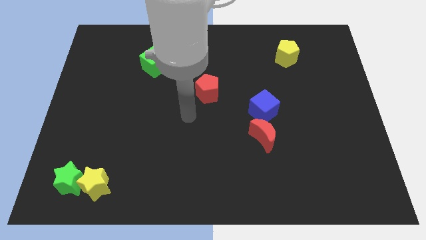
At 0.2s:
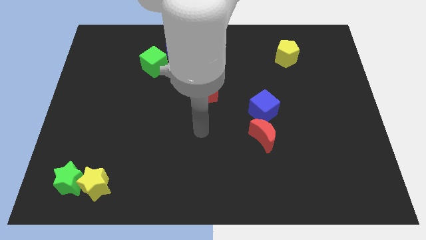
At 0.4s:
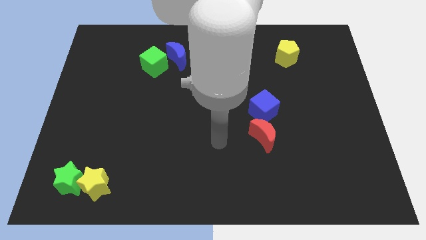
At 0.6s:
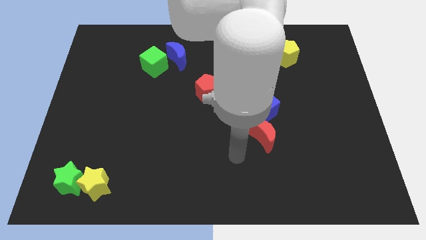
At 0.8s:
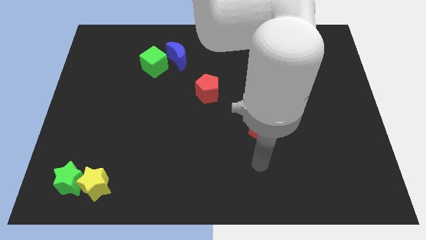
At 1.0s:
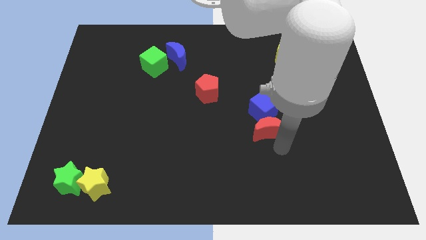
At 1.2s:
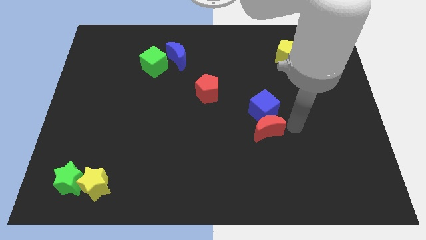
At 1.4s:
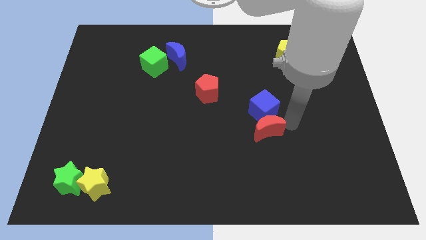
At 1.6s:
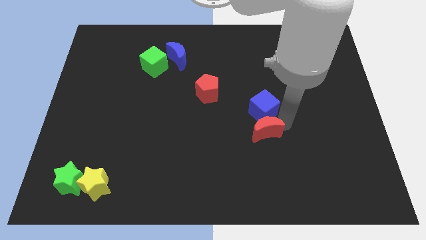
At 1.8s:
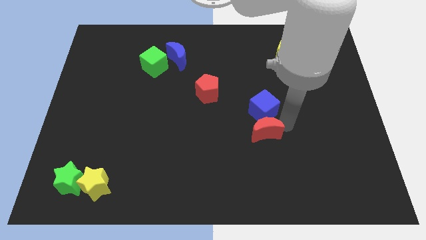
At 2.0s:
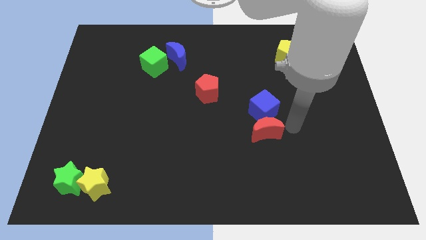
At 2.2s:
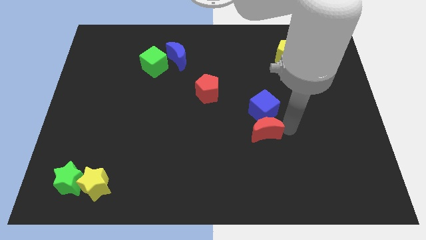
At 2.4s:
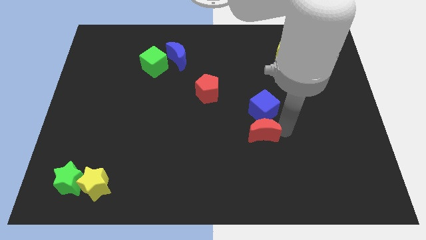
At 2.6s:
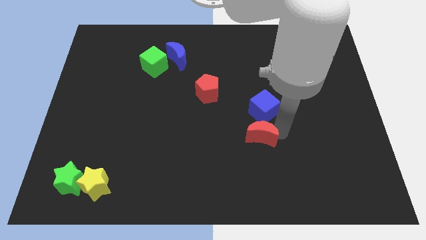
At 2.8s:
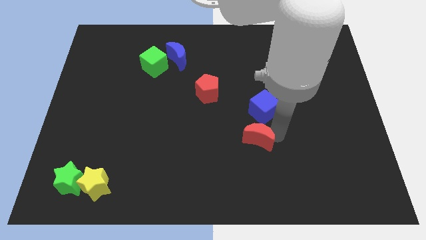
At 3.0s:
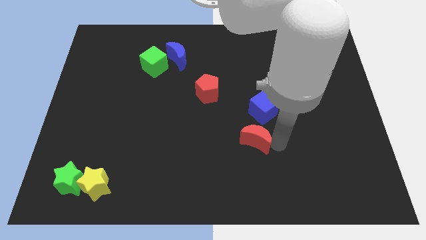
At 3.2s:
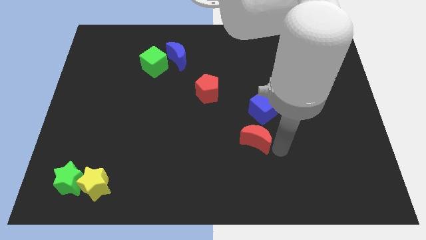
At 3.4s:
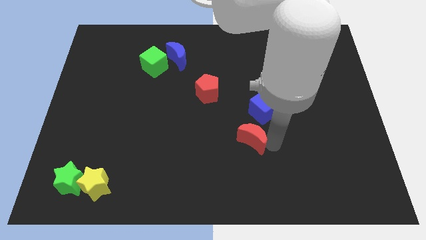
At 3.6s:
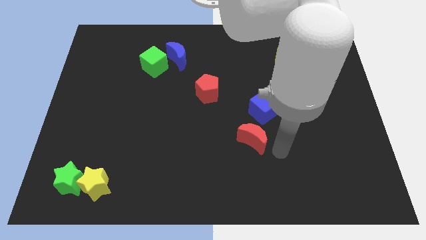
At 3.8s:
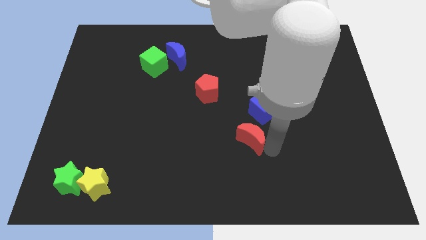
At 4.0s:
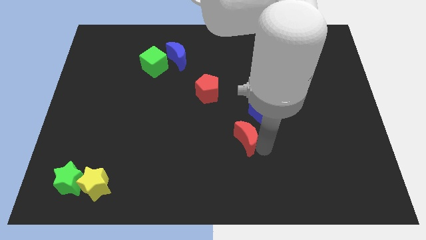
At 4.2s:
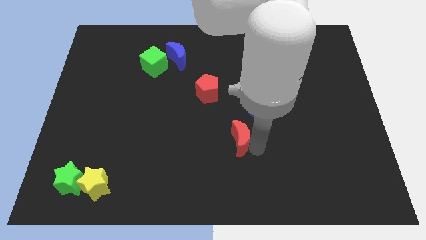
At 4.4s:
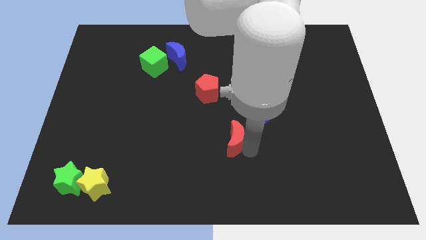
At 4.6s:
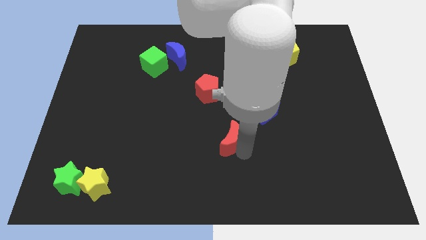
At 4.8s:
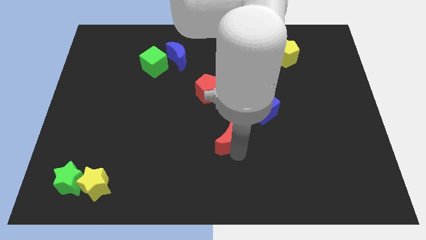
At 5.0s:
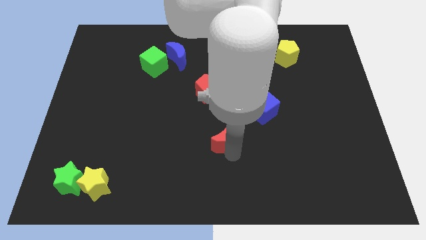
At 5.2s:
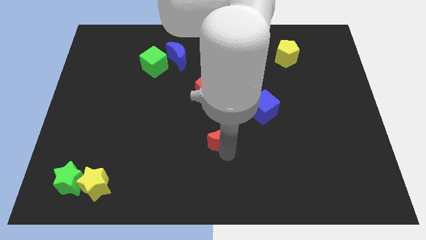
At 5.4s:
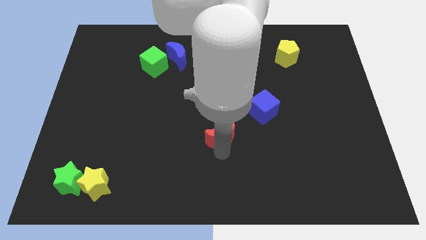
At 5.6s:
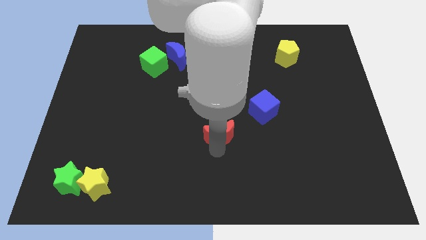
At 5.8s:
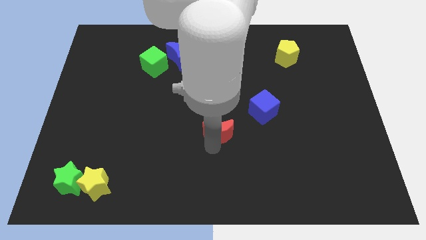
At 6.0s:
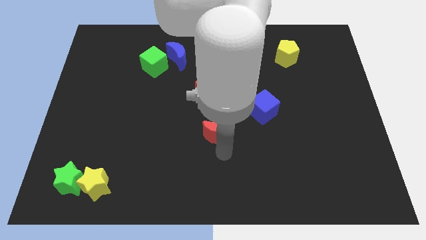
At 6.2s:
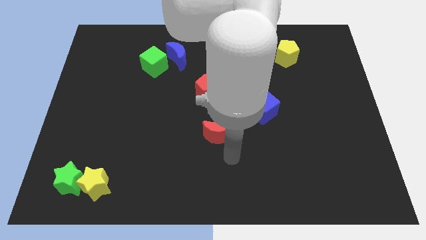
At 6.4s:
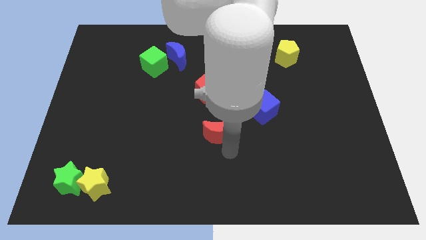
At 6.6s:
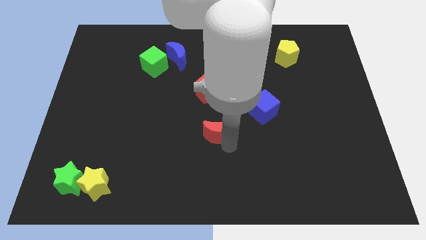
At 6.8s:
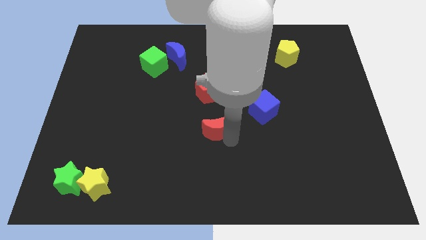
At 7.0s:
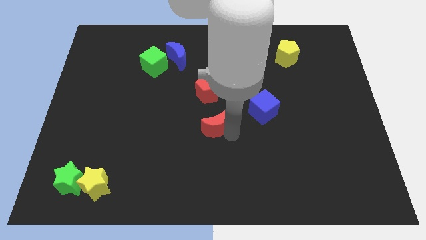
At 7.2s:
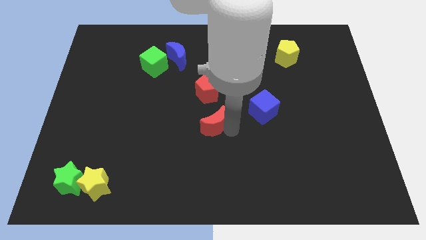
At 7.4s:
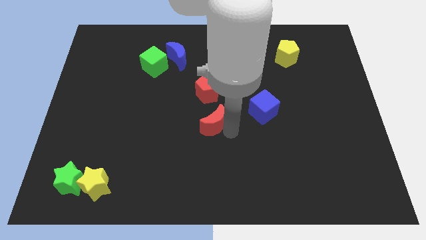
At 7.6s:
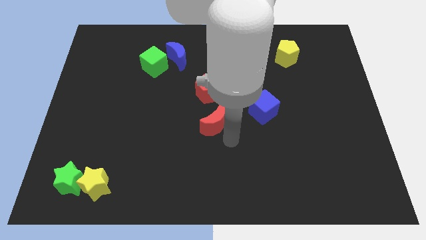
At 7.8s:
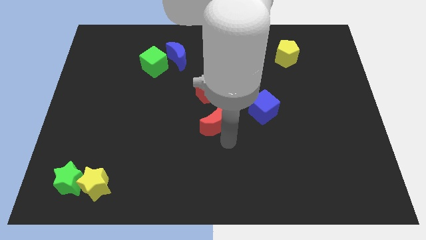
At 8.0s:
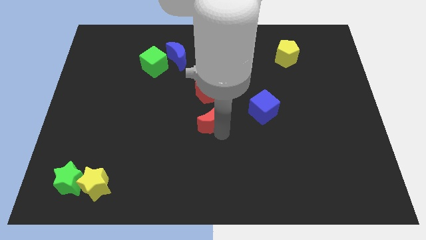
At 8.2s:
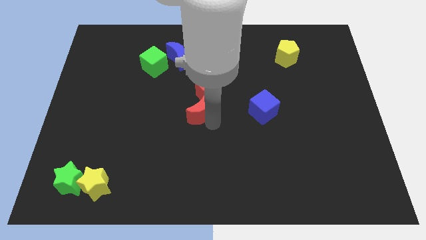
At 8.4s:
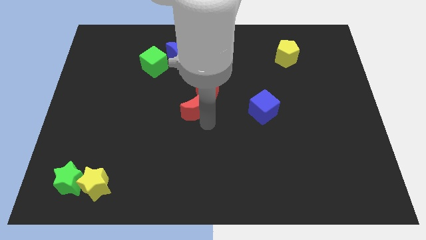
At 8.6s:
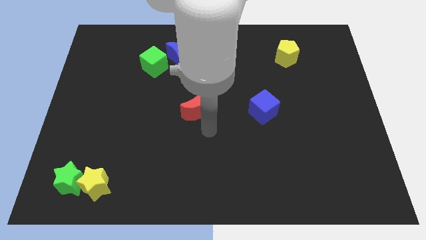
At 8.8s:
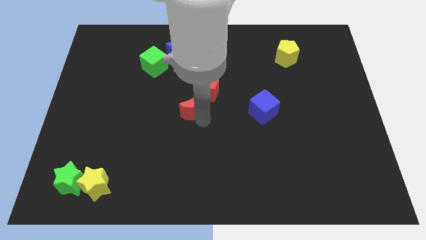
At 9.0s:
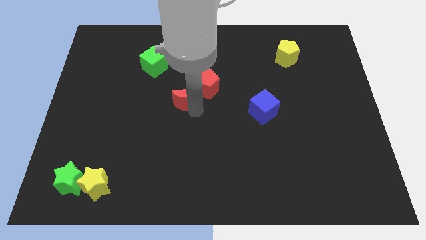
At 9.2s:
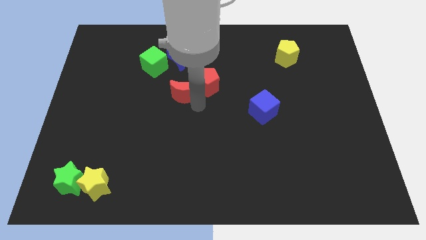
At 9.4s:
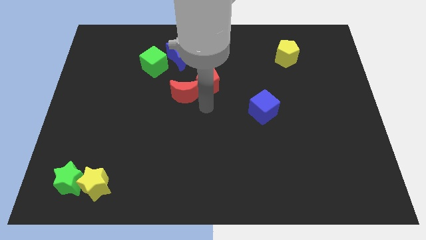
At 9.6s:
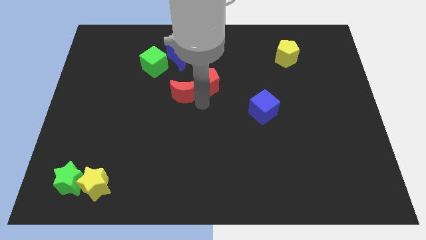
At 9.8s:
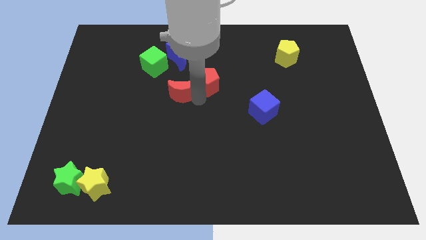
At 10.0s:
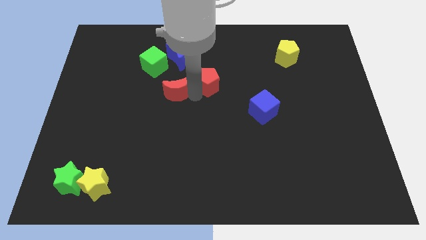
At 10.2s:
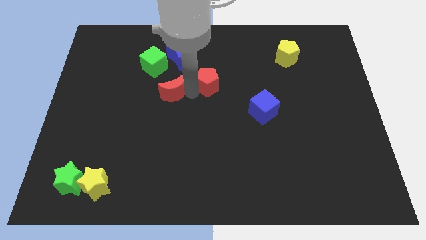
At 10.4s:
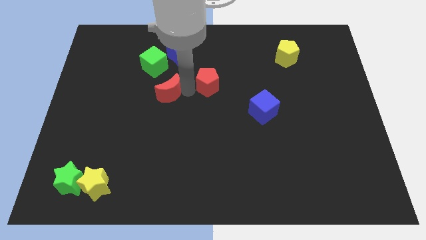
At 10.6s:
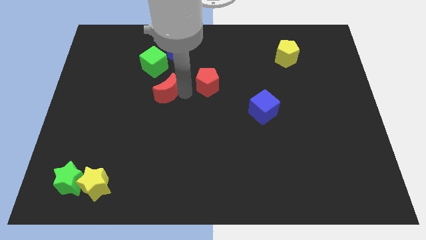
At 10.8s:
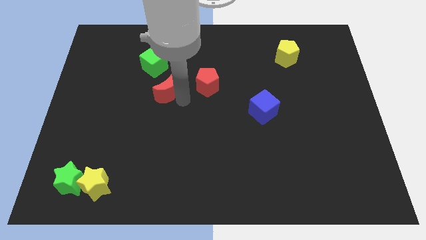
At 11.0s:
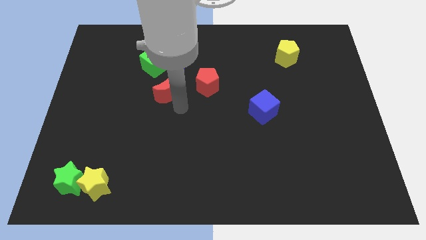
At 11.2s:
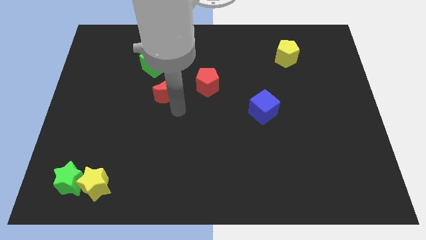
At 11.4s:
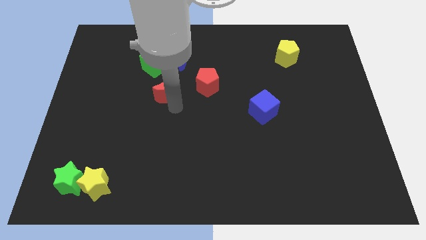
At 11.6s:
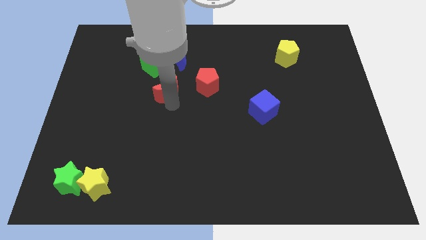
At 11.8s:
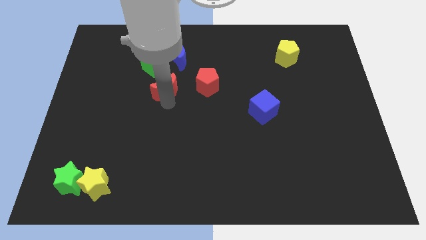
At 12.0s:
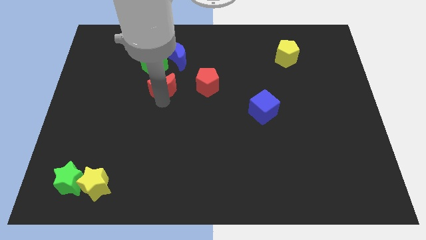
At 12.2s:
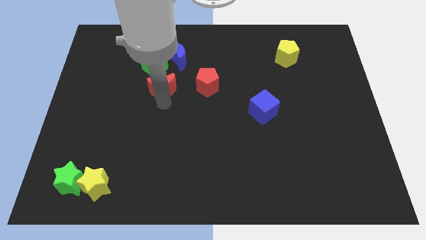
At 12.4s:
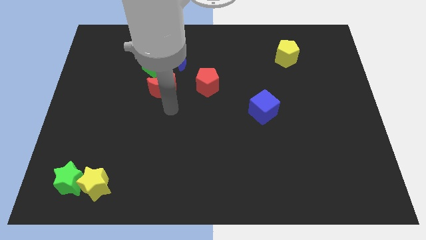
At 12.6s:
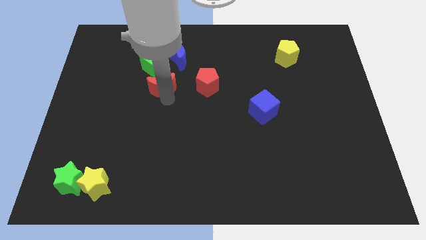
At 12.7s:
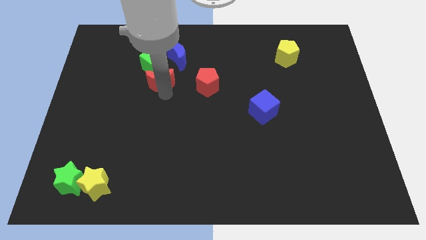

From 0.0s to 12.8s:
put the red moon diagonally down and to the left of the blue moon

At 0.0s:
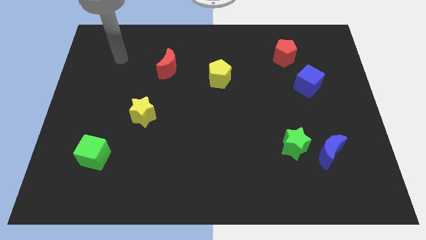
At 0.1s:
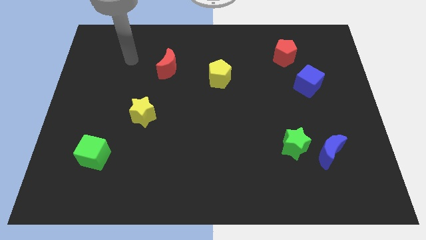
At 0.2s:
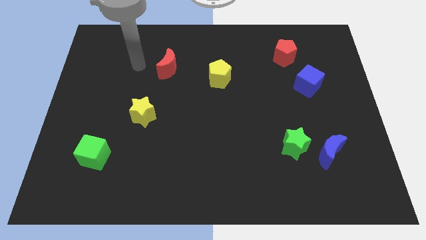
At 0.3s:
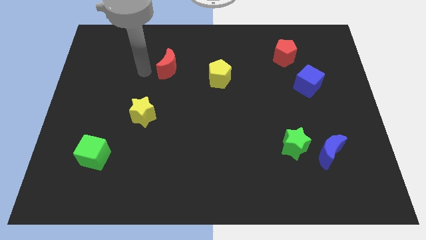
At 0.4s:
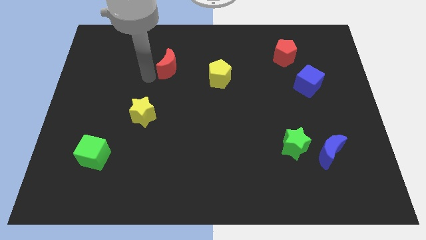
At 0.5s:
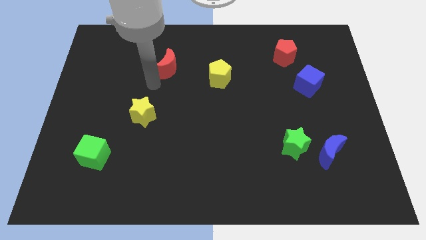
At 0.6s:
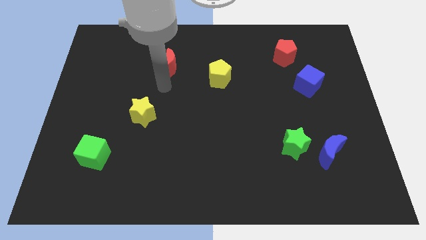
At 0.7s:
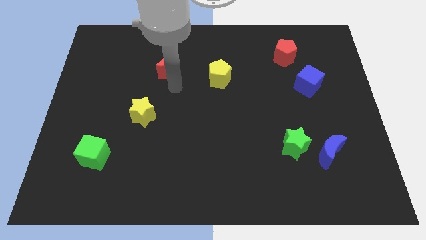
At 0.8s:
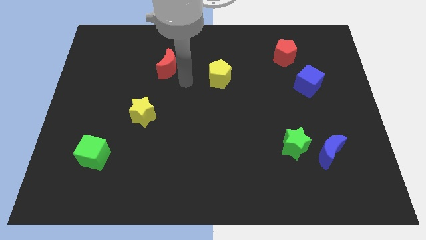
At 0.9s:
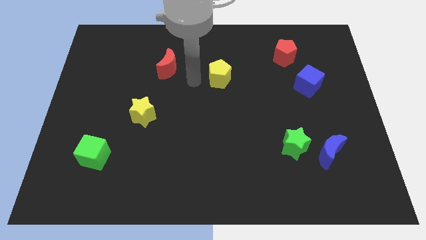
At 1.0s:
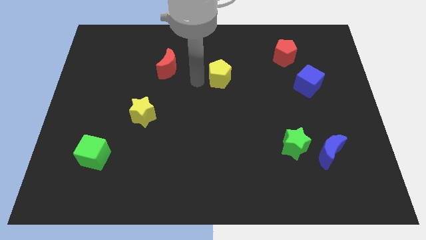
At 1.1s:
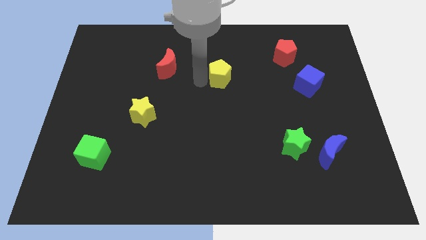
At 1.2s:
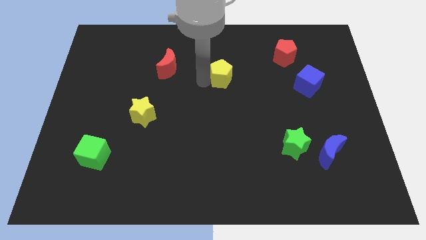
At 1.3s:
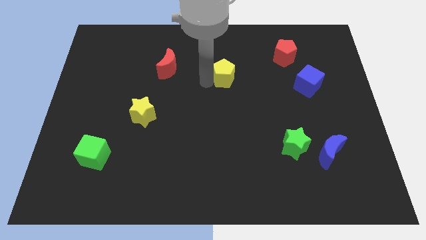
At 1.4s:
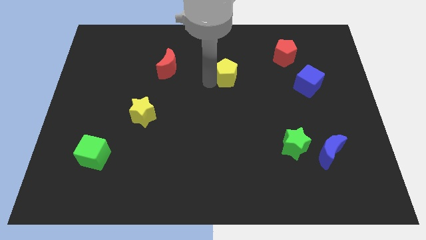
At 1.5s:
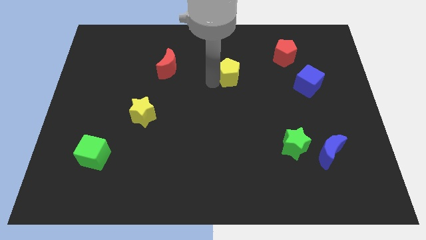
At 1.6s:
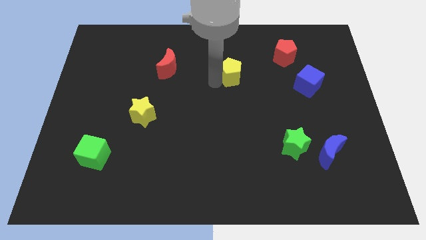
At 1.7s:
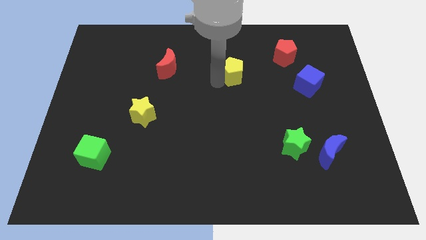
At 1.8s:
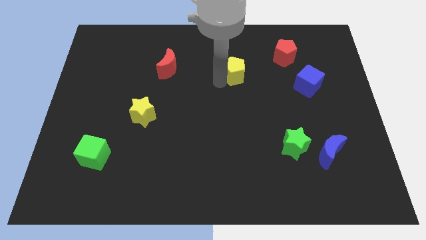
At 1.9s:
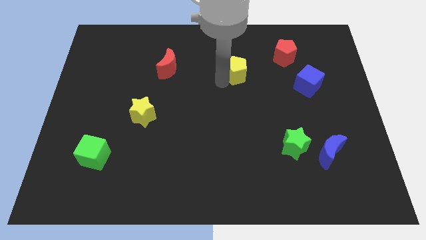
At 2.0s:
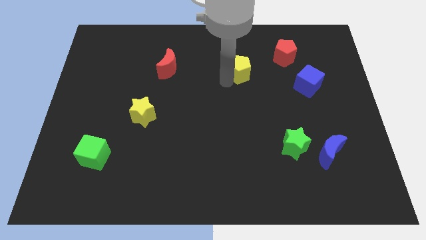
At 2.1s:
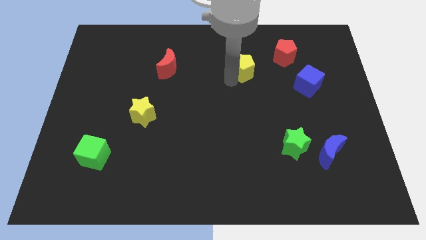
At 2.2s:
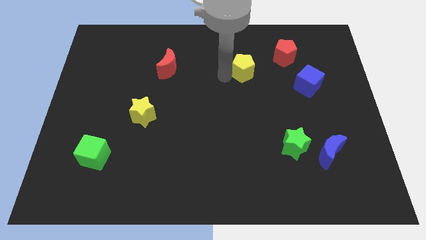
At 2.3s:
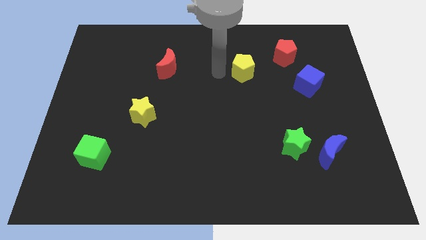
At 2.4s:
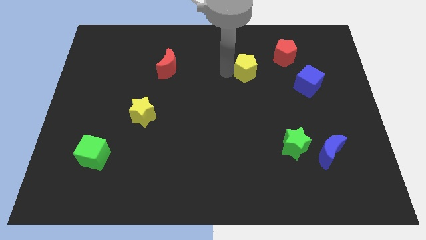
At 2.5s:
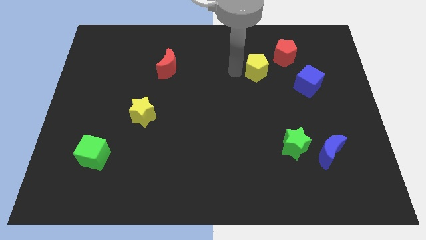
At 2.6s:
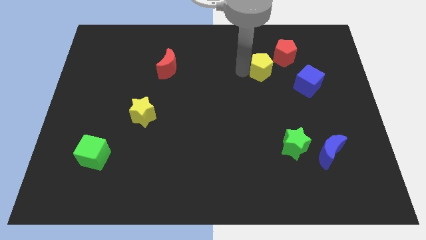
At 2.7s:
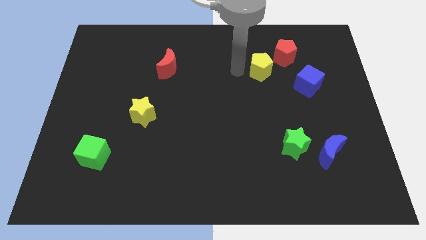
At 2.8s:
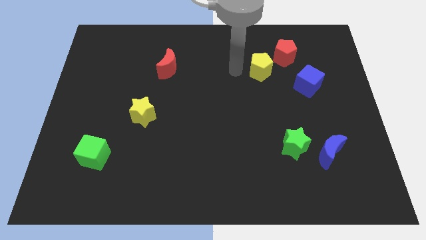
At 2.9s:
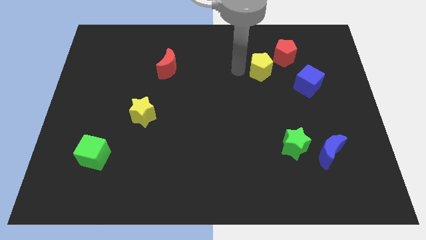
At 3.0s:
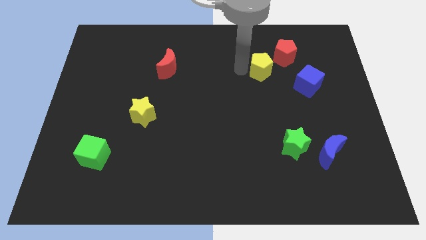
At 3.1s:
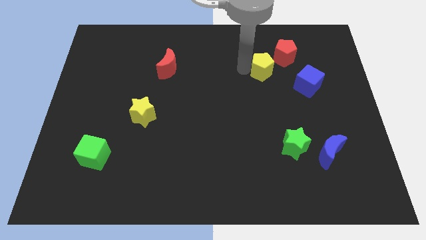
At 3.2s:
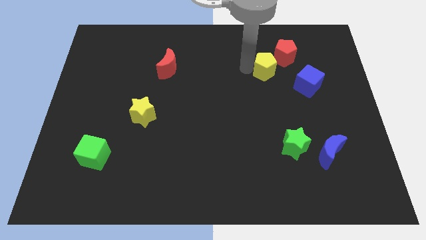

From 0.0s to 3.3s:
move the yellow pentagon to the top left side of the blue cube
